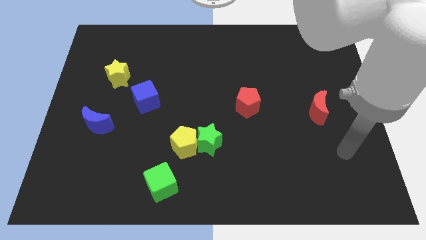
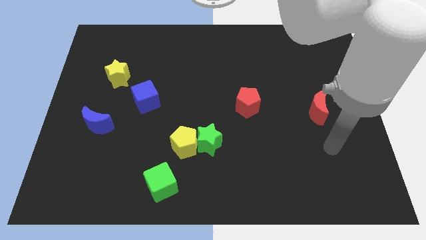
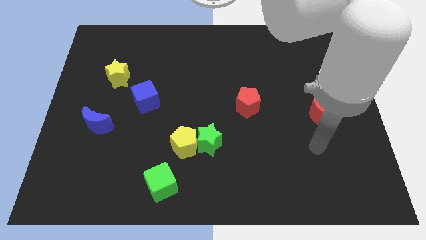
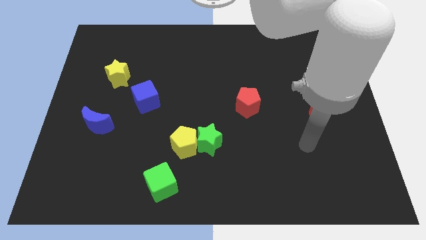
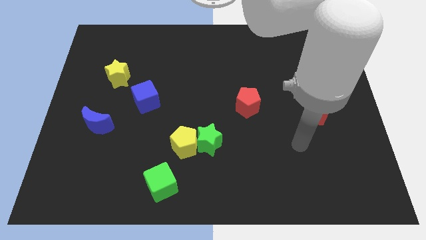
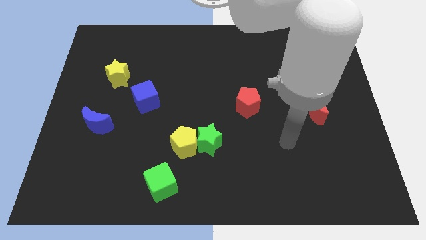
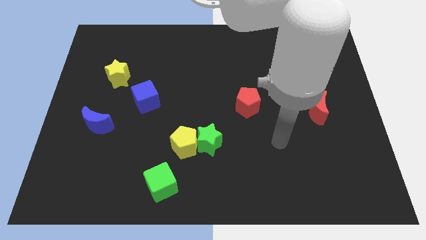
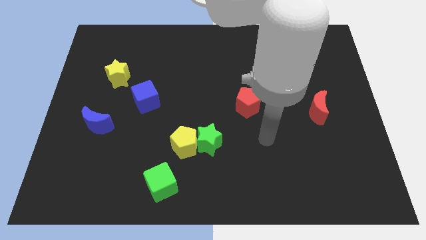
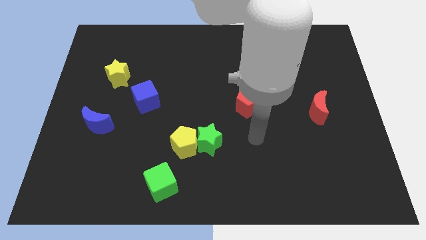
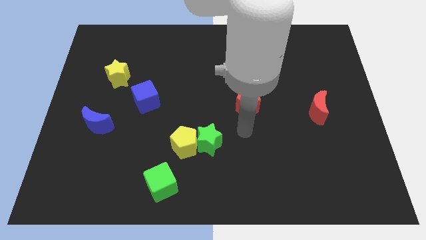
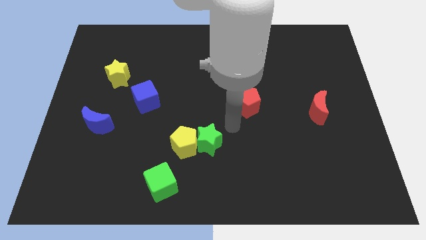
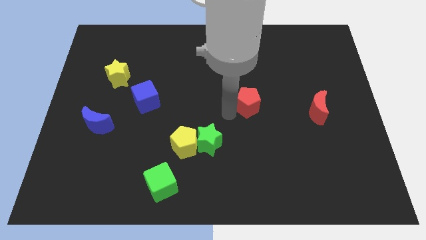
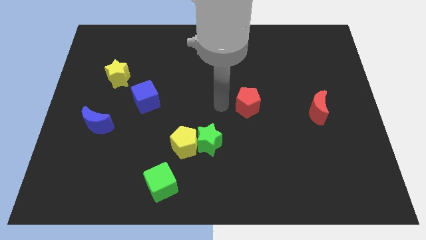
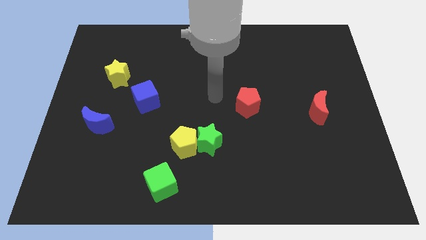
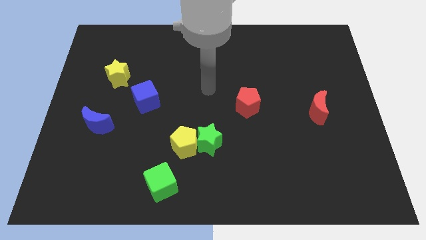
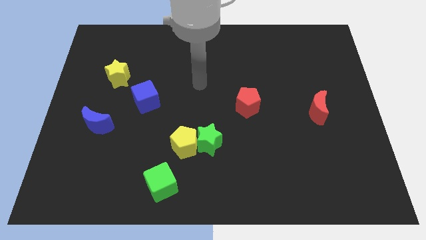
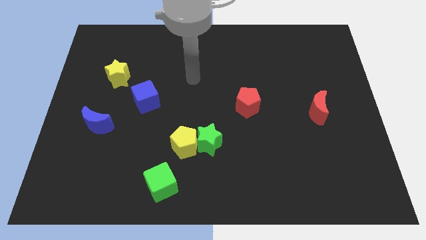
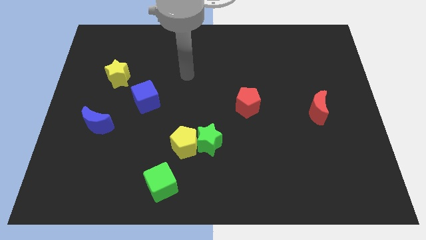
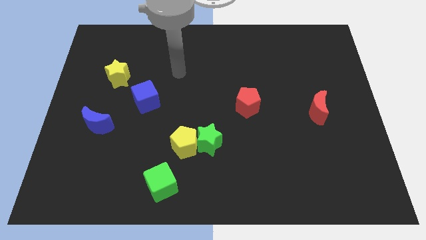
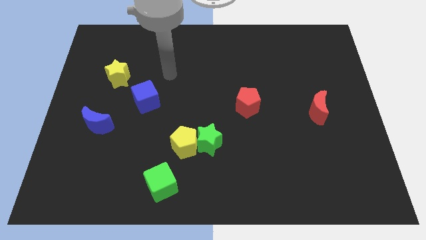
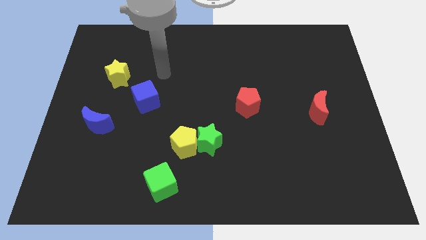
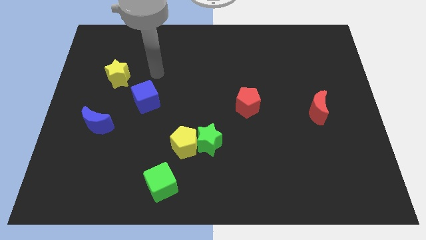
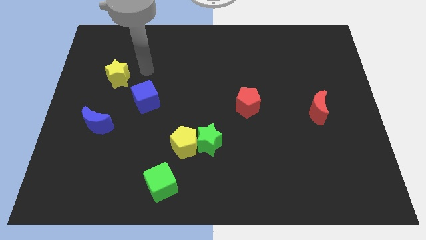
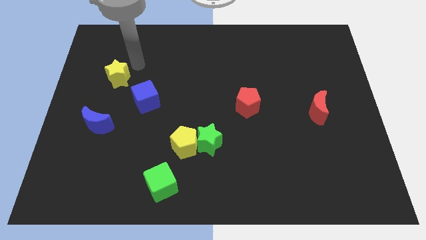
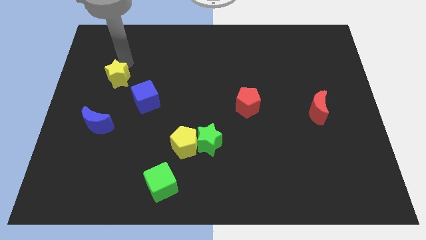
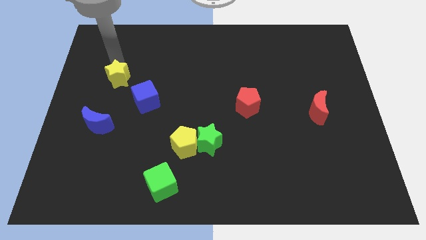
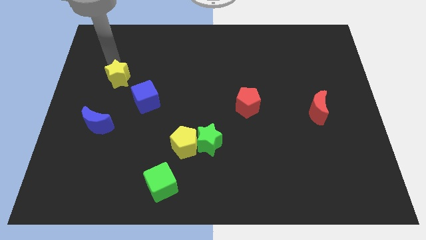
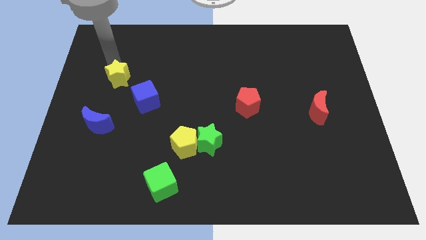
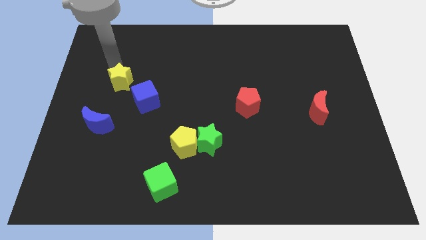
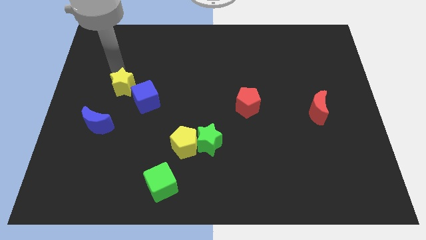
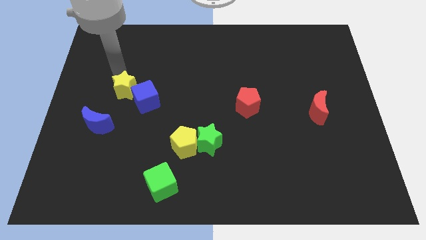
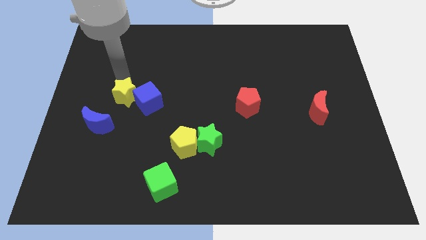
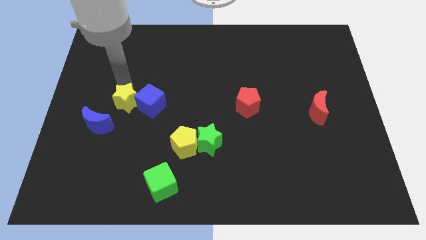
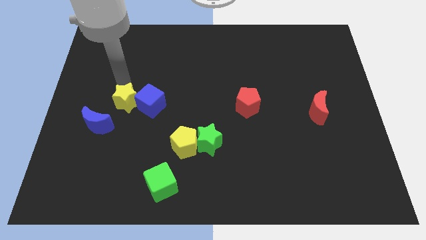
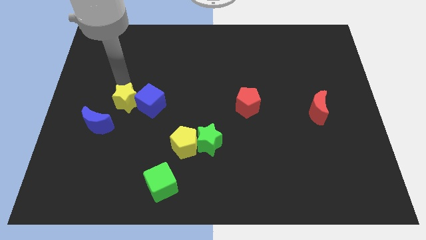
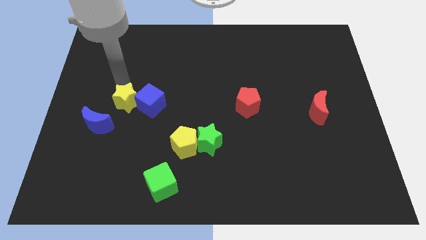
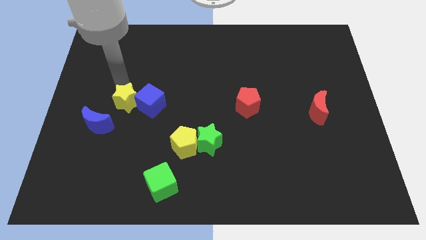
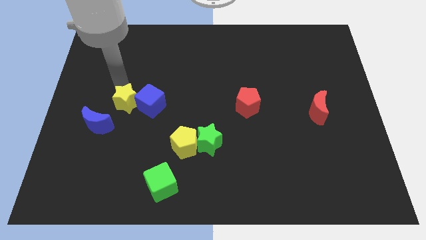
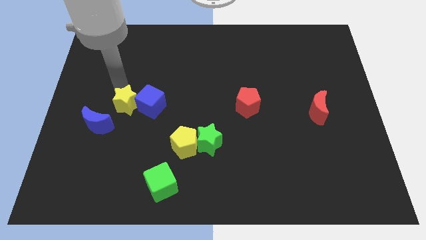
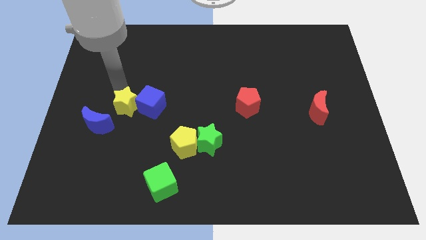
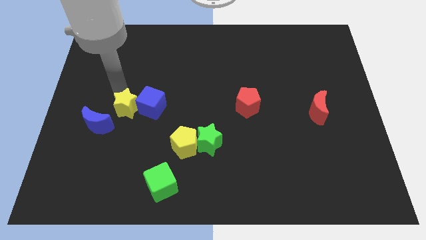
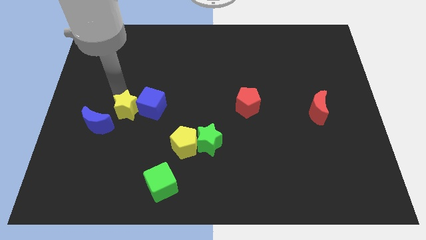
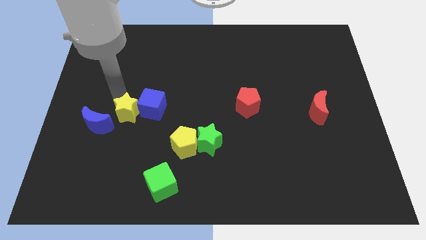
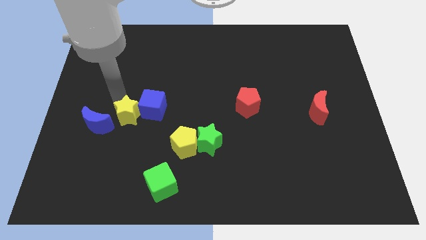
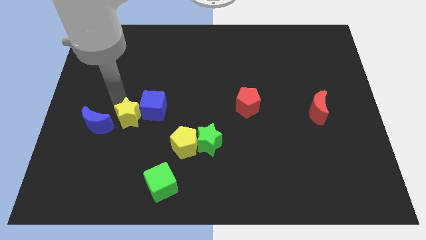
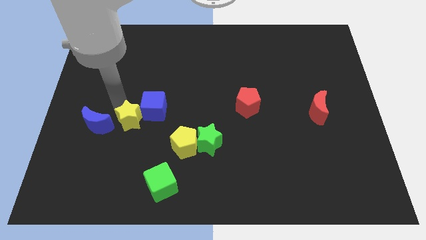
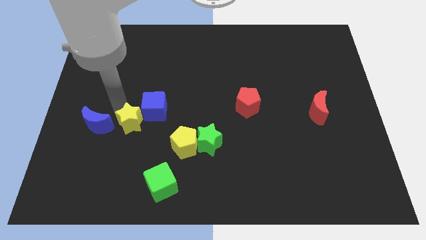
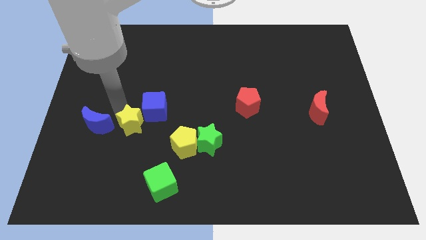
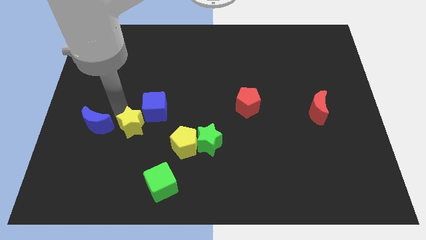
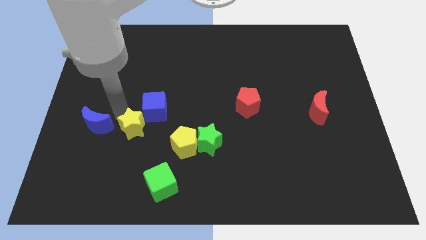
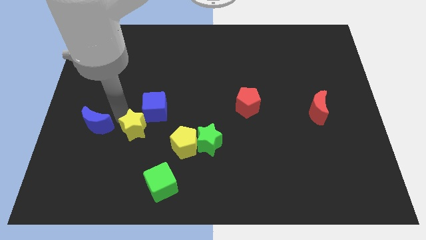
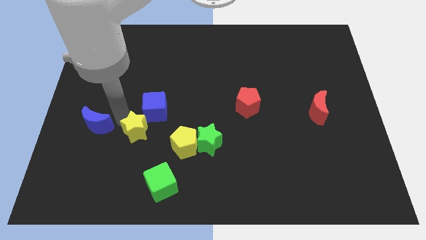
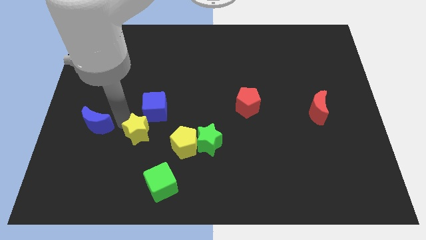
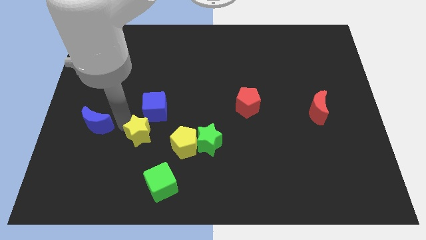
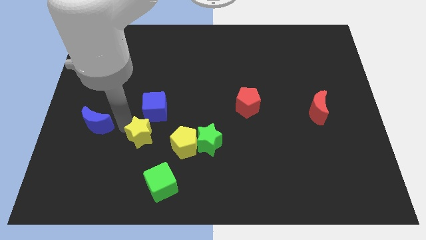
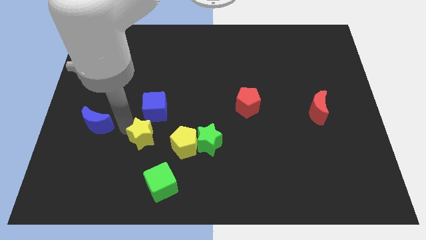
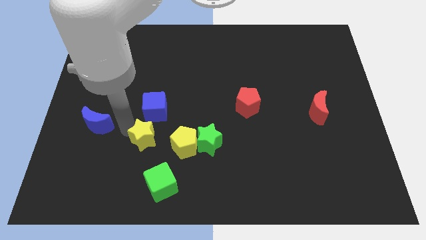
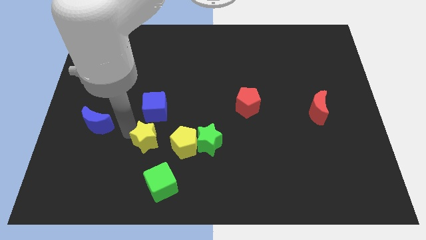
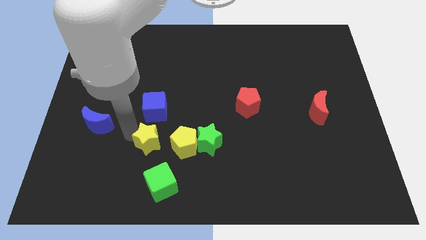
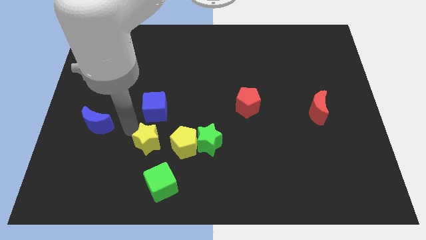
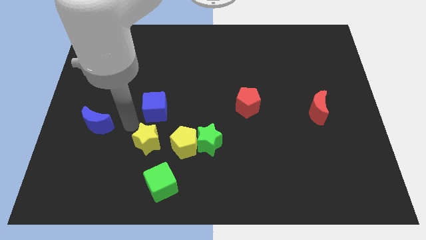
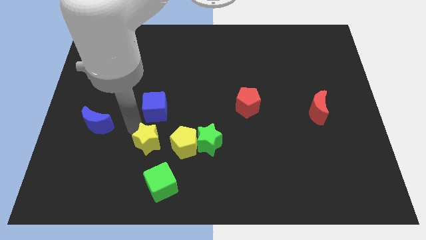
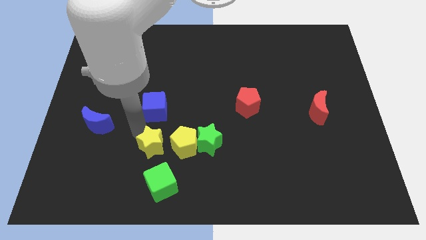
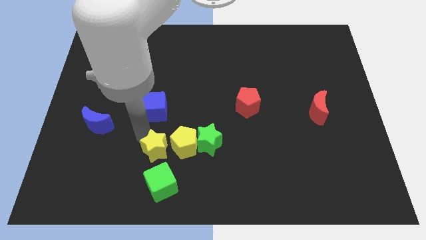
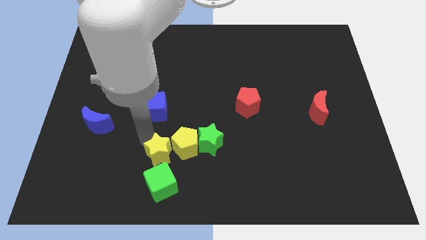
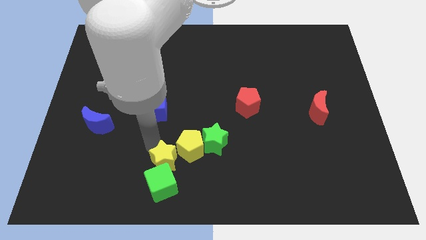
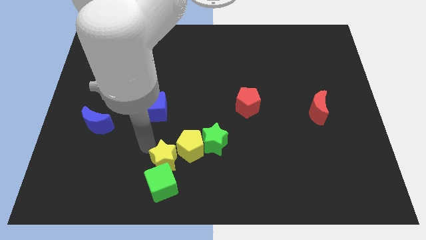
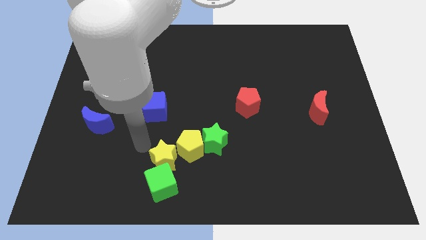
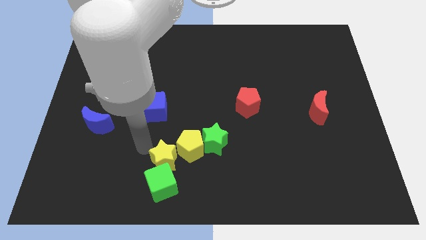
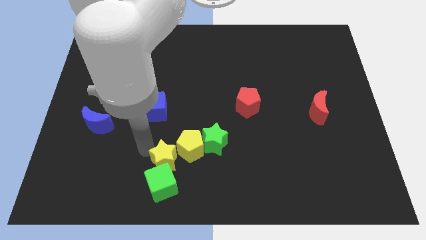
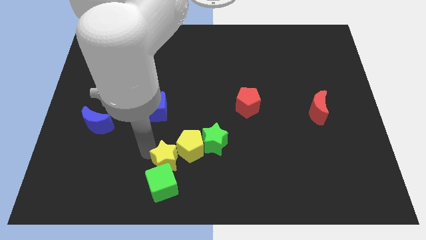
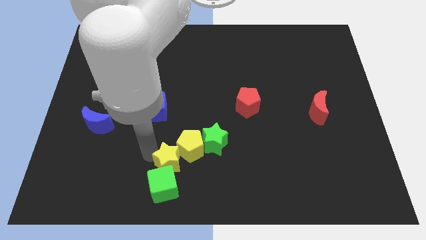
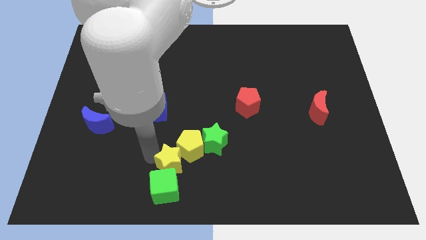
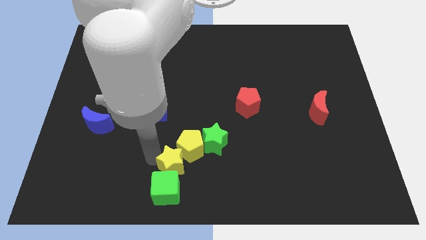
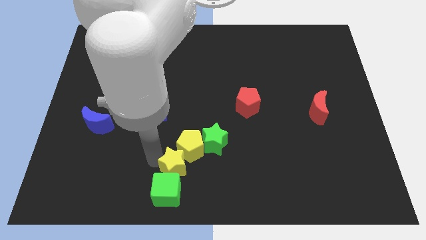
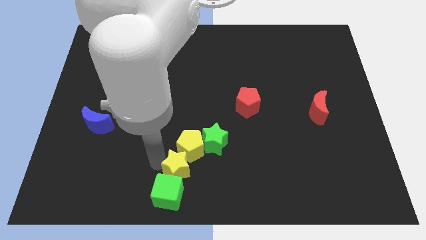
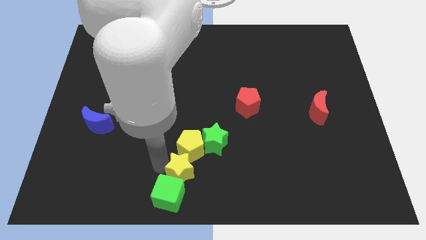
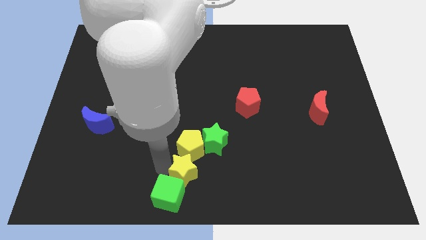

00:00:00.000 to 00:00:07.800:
move the yellow star to the bottom right side of the yellow pentagon
